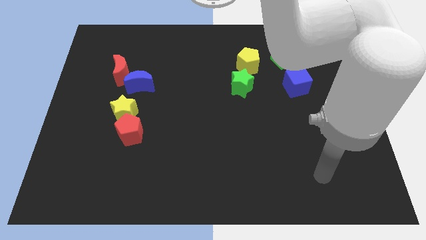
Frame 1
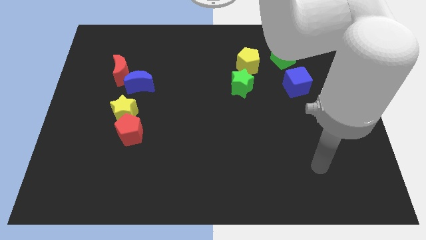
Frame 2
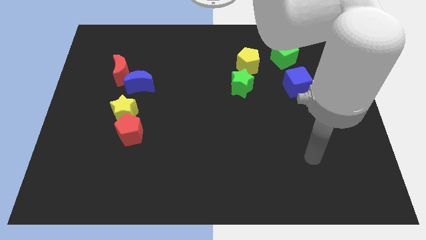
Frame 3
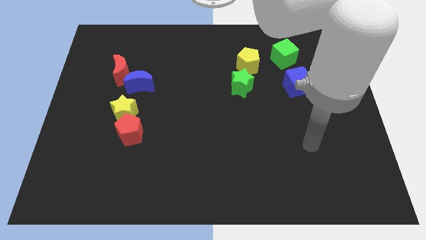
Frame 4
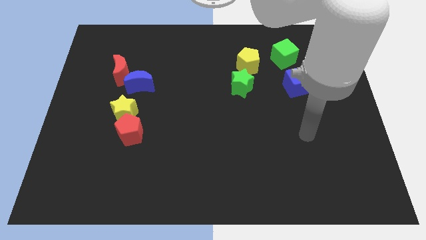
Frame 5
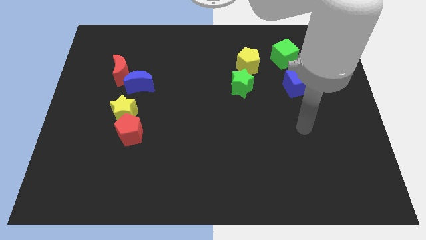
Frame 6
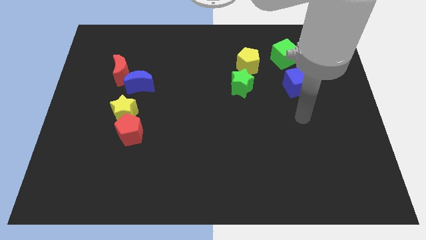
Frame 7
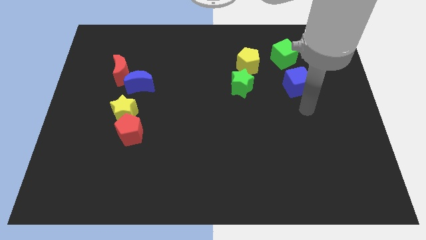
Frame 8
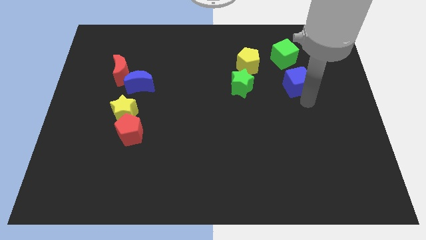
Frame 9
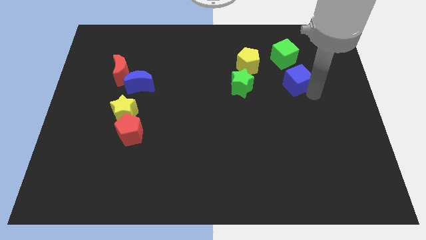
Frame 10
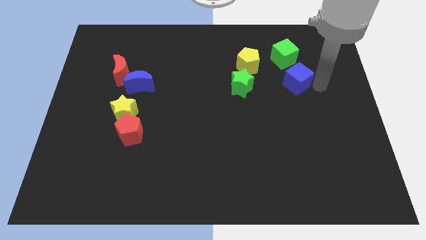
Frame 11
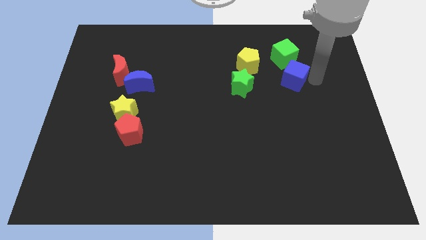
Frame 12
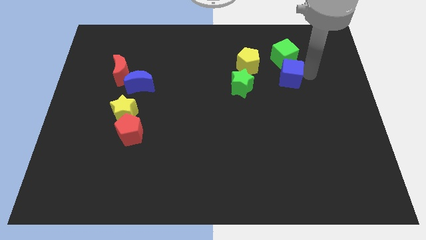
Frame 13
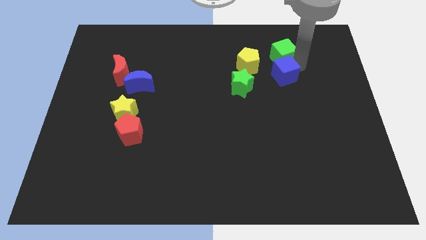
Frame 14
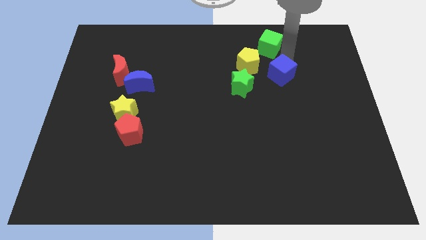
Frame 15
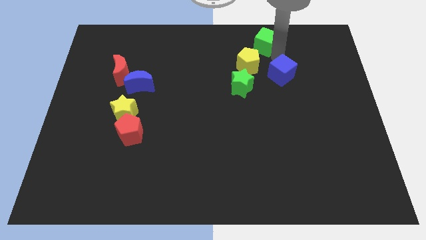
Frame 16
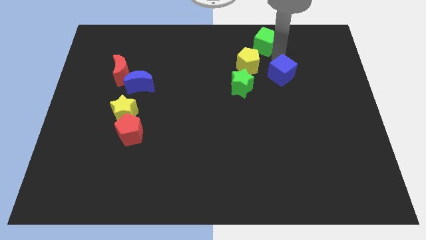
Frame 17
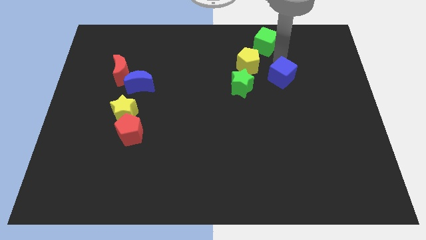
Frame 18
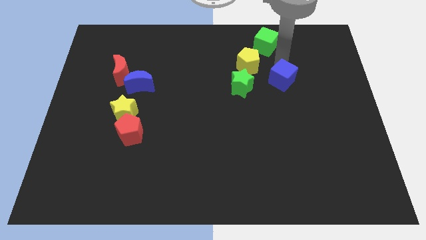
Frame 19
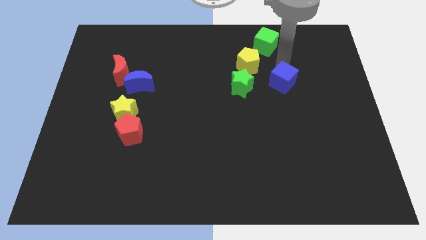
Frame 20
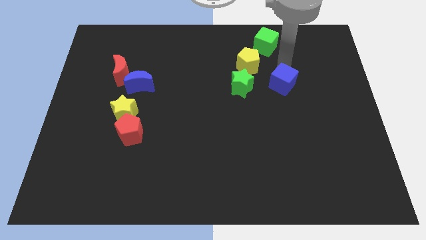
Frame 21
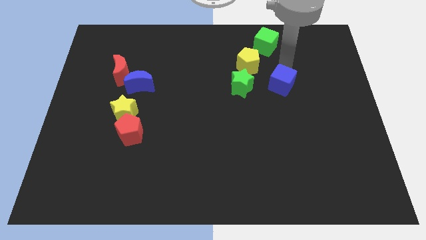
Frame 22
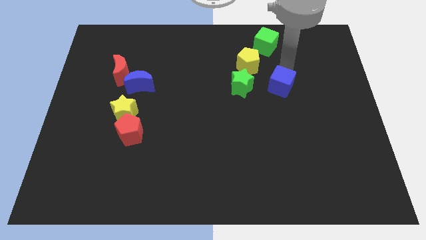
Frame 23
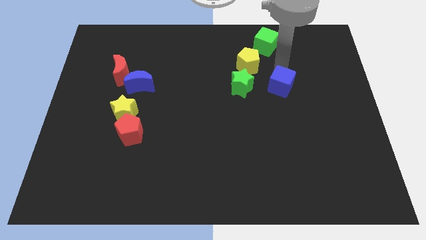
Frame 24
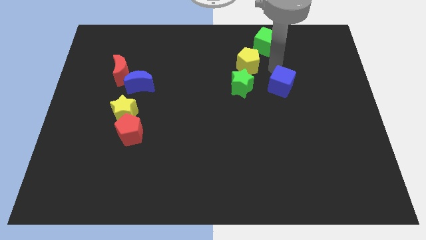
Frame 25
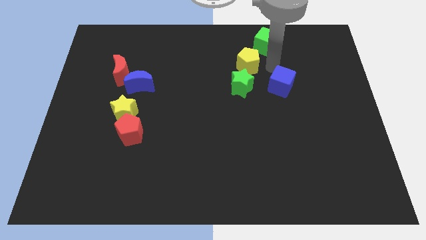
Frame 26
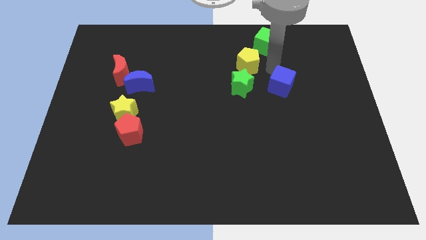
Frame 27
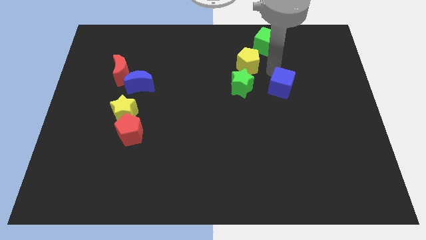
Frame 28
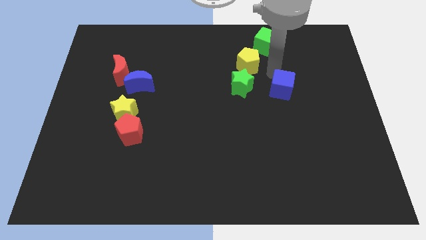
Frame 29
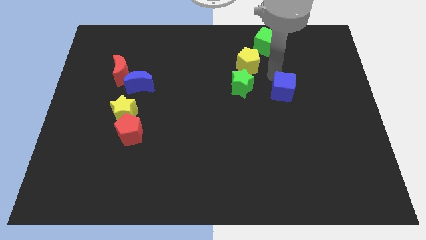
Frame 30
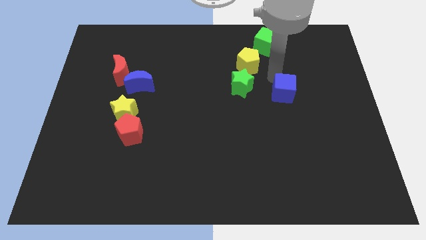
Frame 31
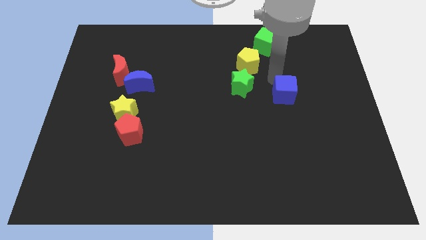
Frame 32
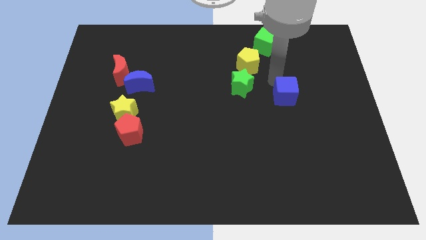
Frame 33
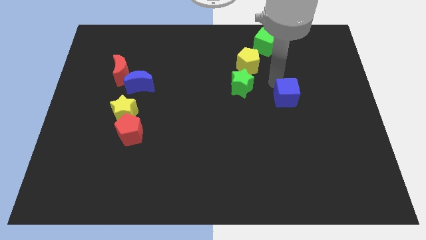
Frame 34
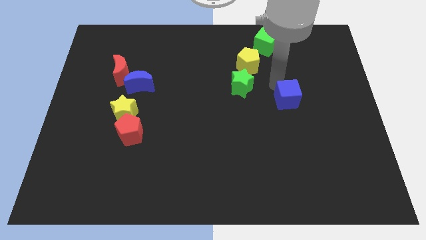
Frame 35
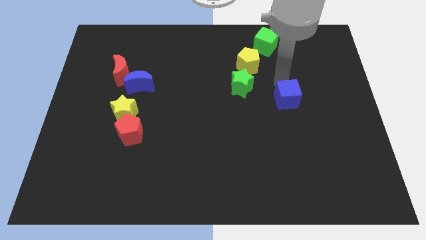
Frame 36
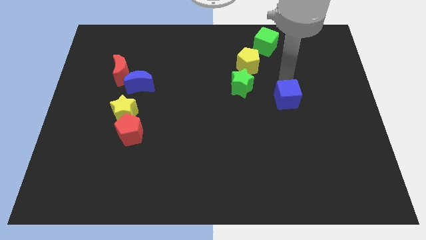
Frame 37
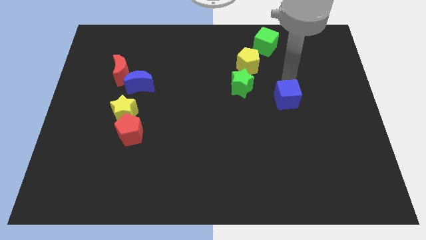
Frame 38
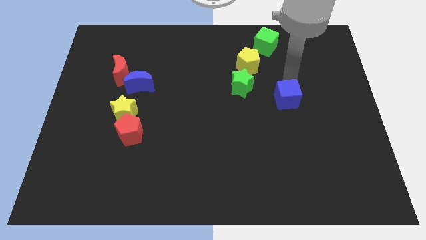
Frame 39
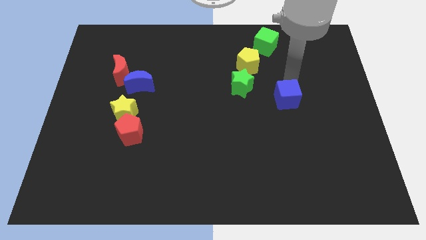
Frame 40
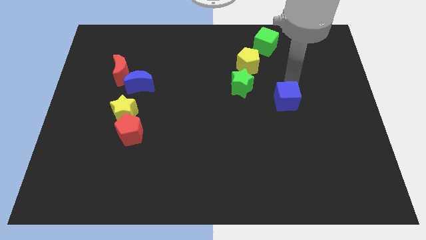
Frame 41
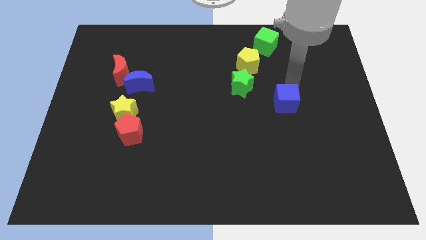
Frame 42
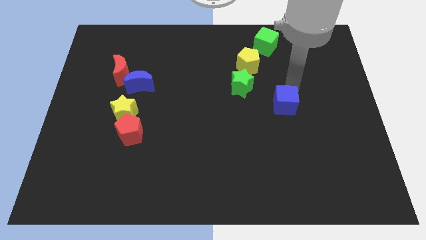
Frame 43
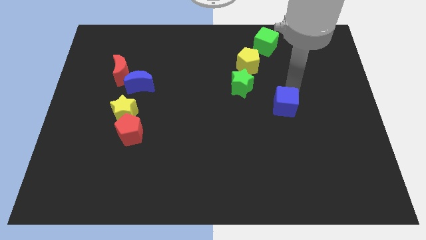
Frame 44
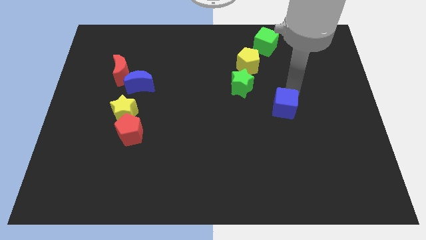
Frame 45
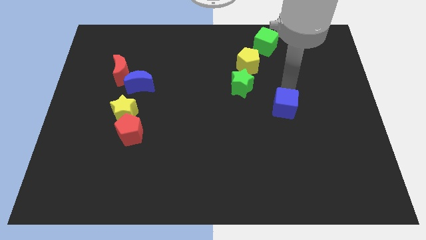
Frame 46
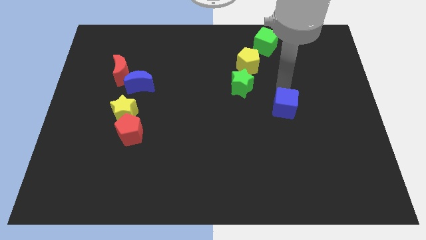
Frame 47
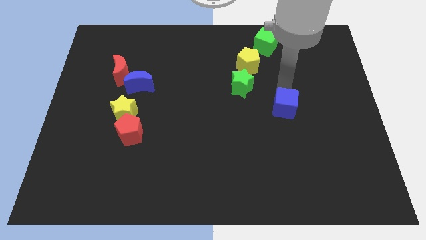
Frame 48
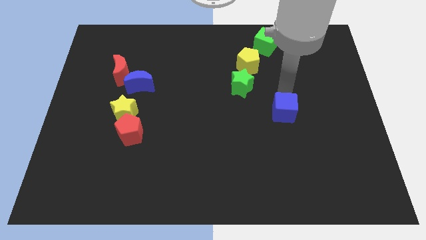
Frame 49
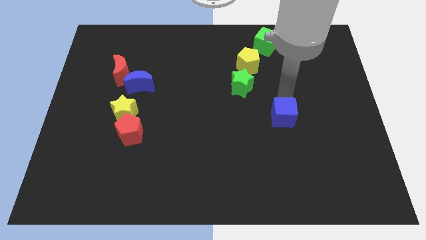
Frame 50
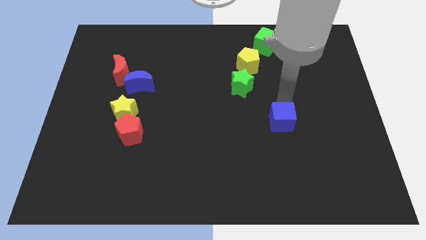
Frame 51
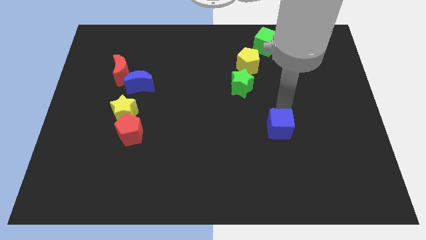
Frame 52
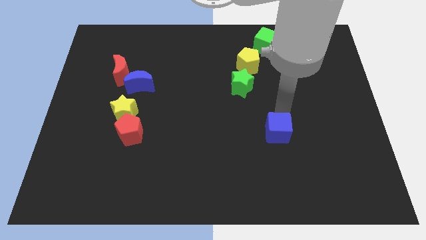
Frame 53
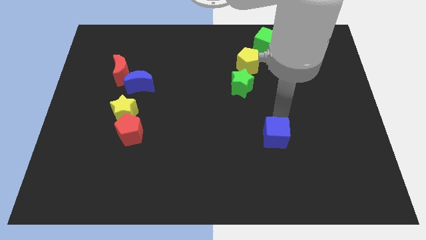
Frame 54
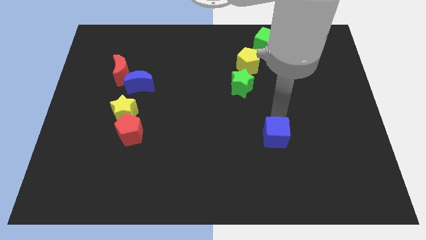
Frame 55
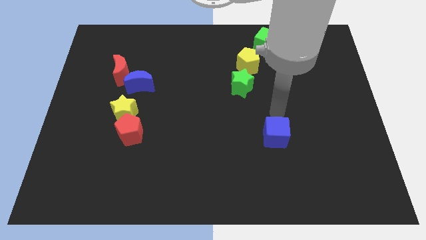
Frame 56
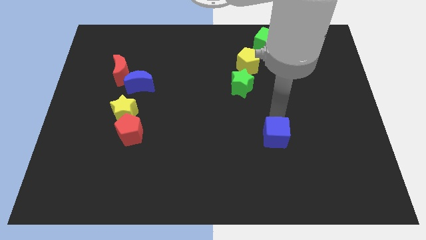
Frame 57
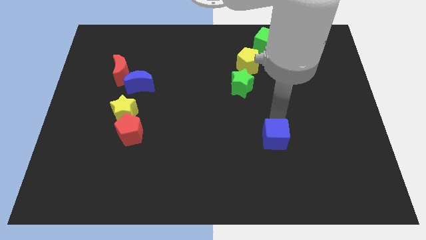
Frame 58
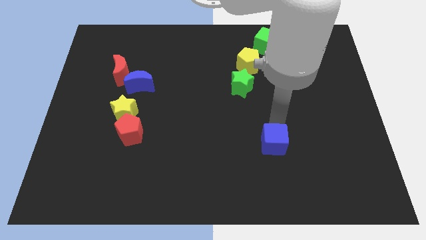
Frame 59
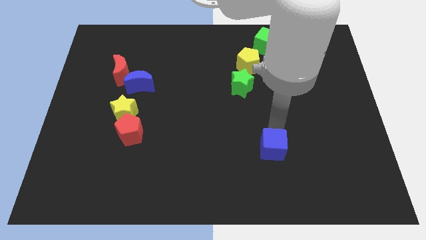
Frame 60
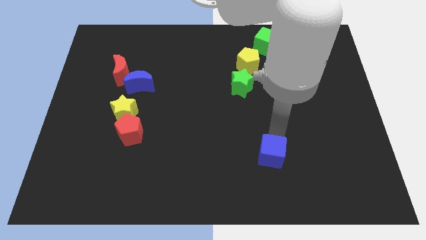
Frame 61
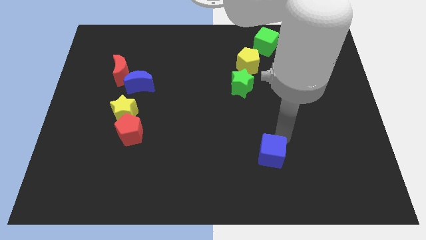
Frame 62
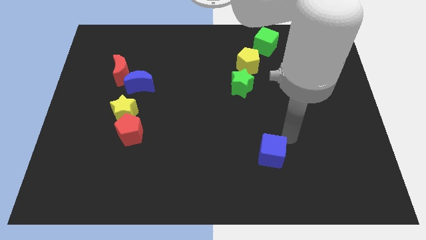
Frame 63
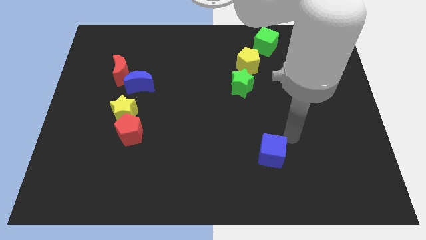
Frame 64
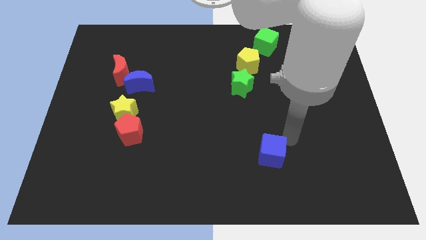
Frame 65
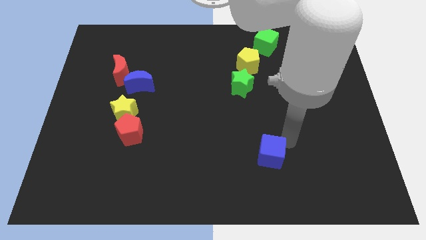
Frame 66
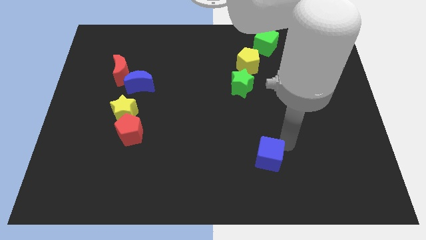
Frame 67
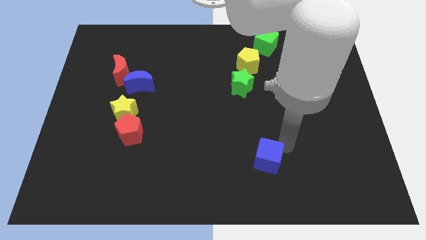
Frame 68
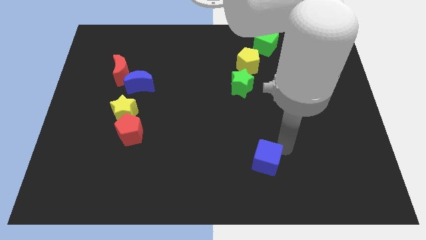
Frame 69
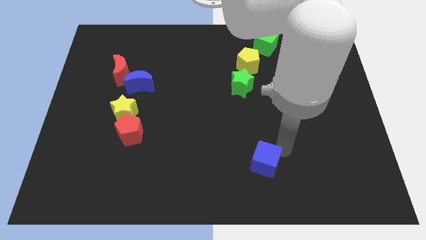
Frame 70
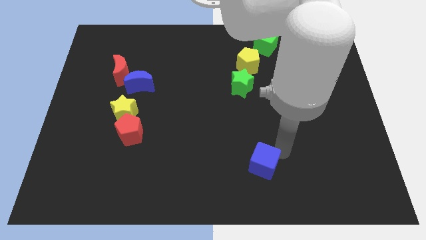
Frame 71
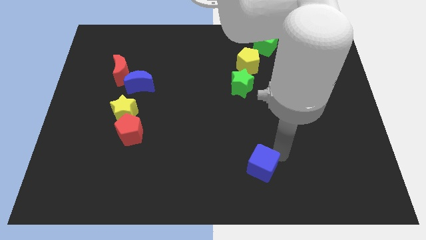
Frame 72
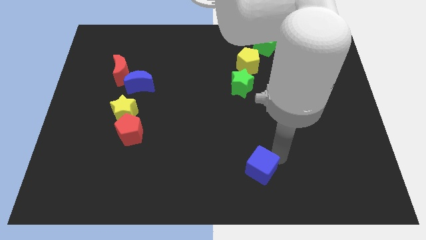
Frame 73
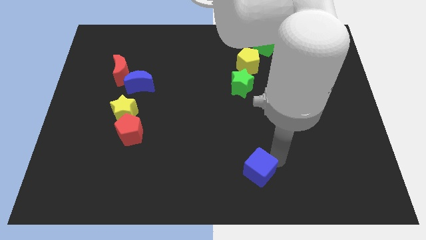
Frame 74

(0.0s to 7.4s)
move the blue cube to the bottom
